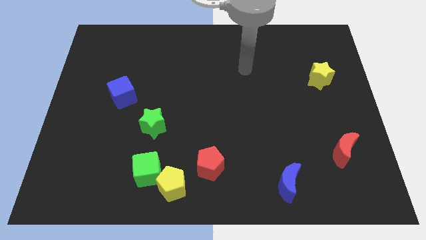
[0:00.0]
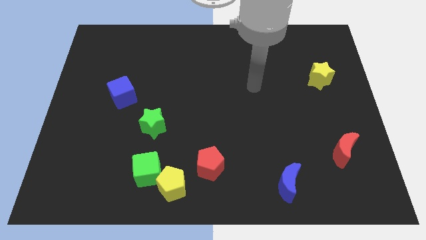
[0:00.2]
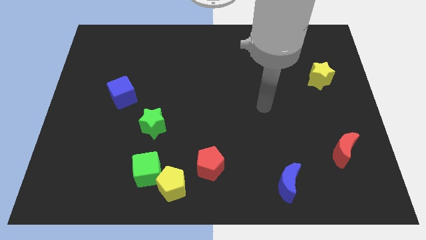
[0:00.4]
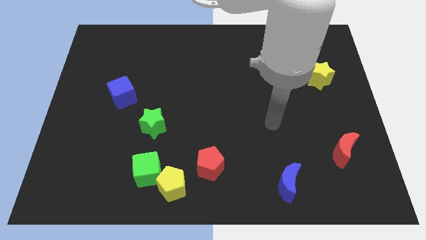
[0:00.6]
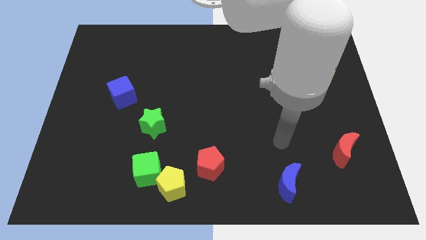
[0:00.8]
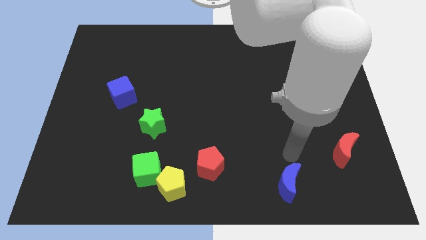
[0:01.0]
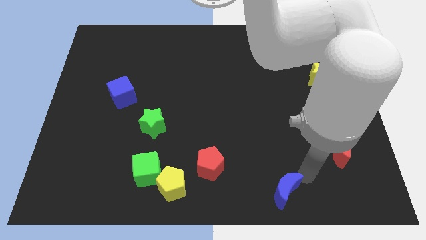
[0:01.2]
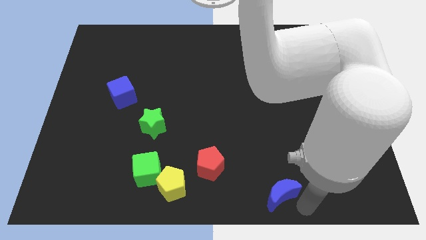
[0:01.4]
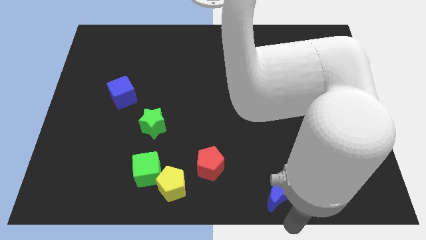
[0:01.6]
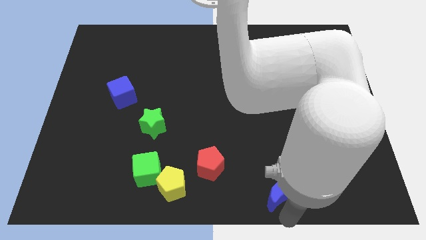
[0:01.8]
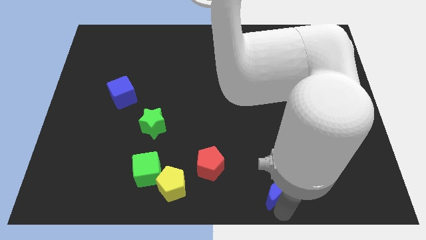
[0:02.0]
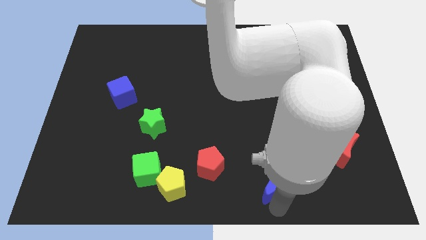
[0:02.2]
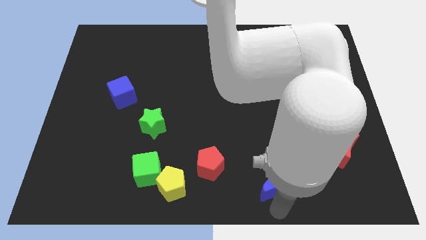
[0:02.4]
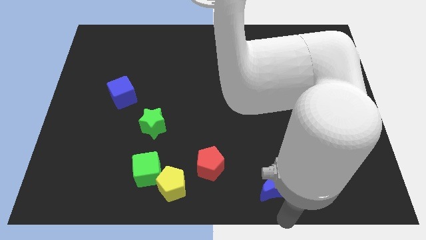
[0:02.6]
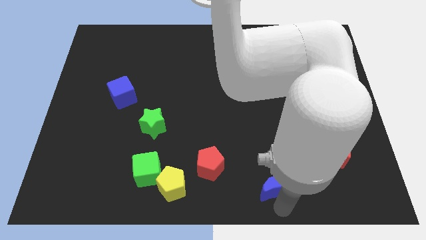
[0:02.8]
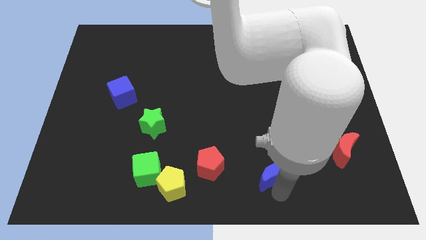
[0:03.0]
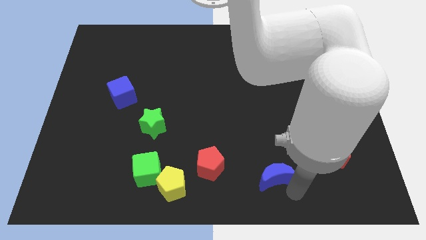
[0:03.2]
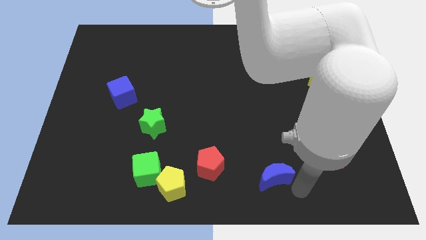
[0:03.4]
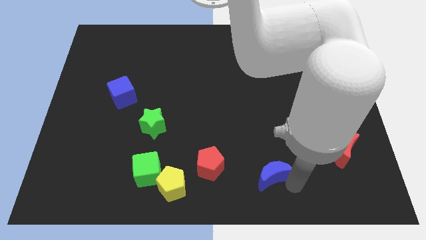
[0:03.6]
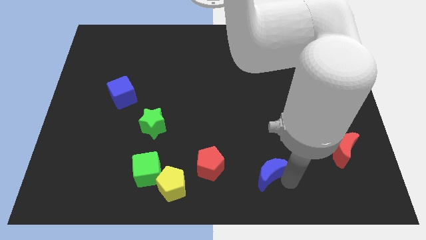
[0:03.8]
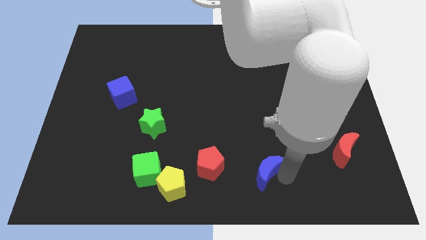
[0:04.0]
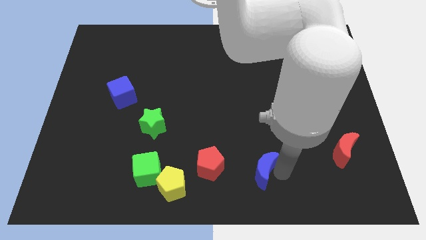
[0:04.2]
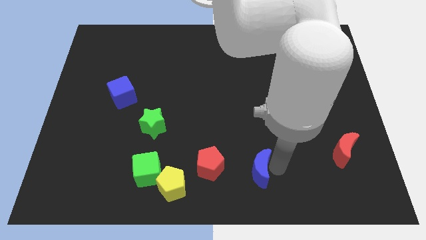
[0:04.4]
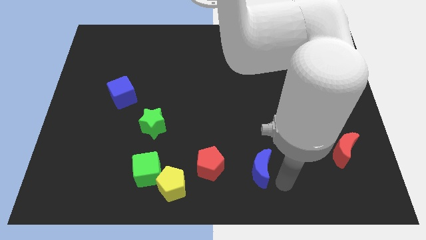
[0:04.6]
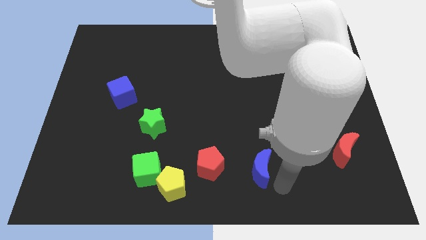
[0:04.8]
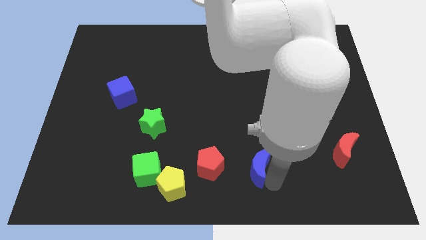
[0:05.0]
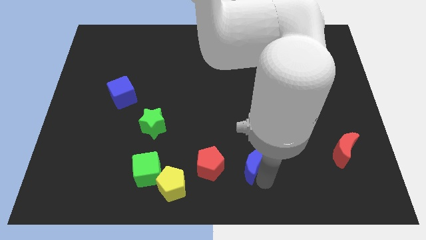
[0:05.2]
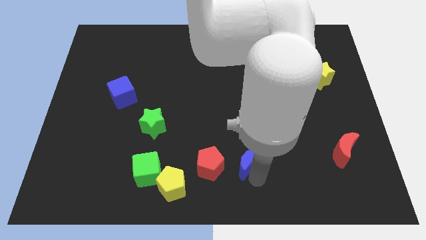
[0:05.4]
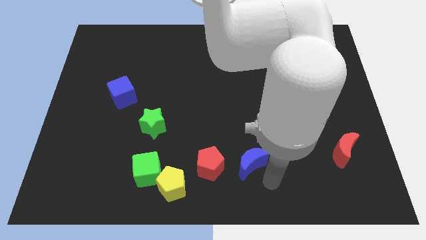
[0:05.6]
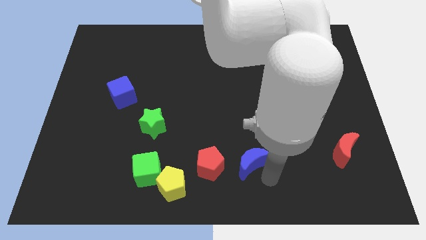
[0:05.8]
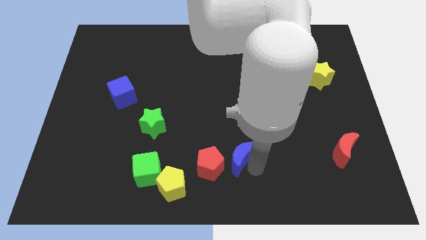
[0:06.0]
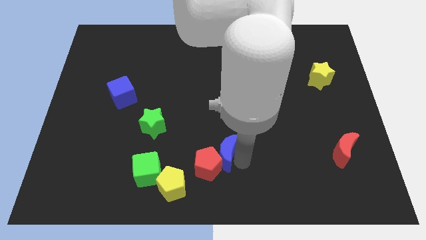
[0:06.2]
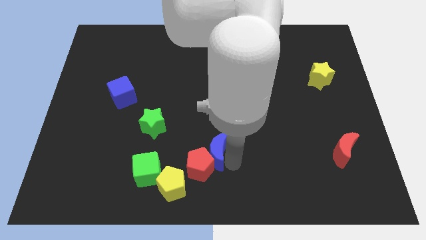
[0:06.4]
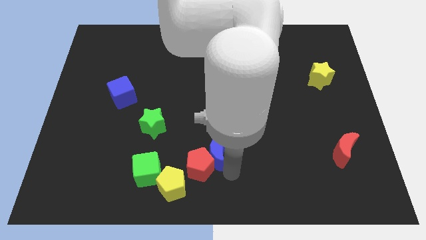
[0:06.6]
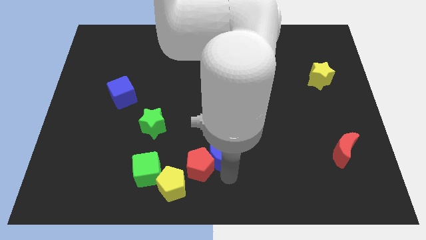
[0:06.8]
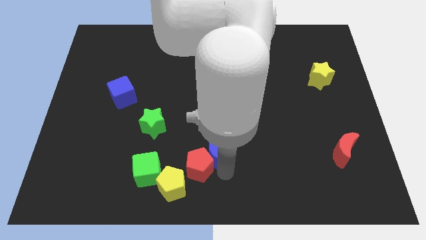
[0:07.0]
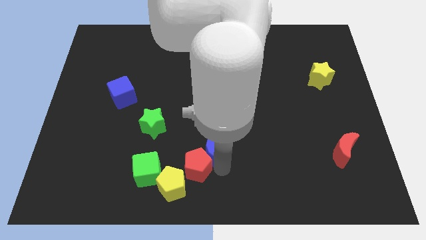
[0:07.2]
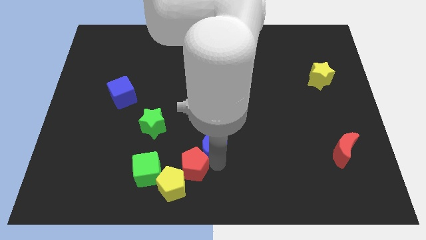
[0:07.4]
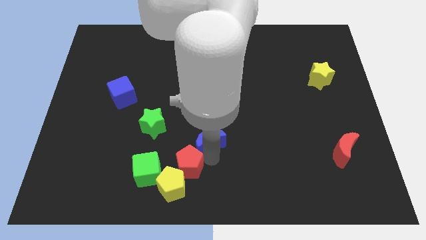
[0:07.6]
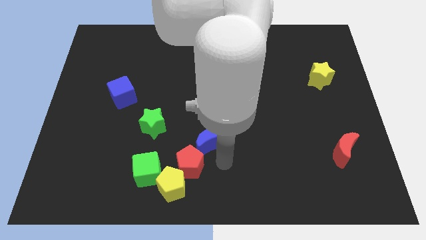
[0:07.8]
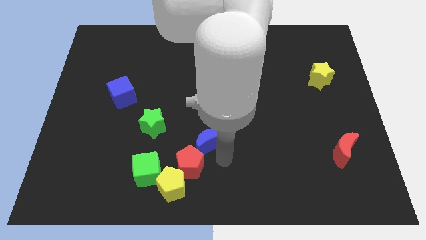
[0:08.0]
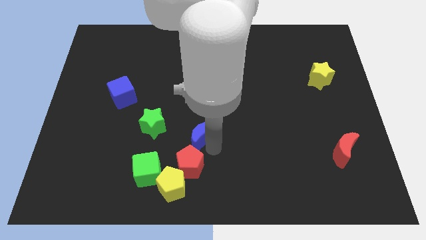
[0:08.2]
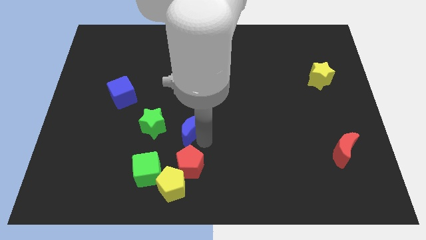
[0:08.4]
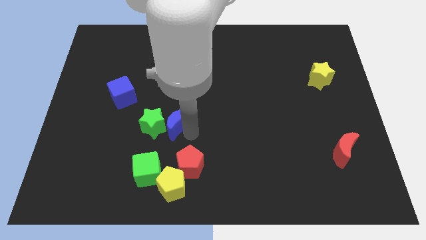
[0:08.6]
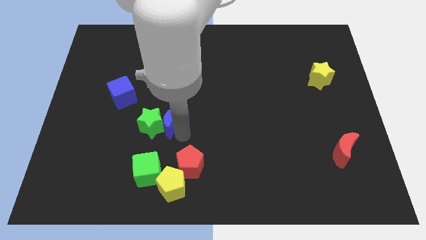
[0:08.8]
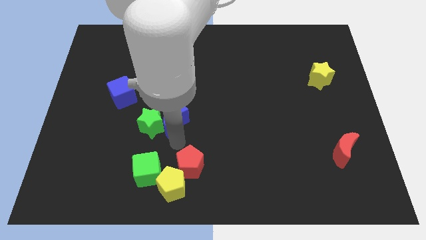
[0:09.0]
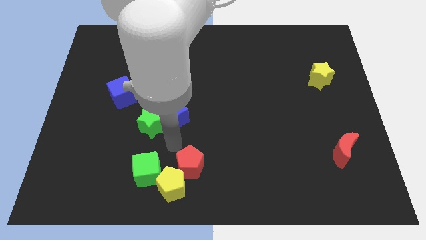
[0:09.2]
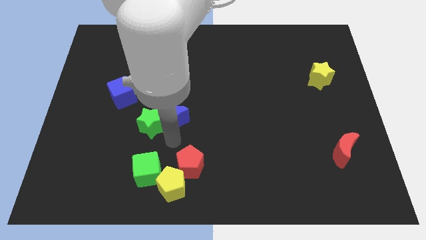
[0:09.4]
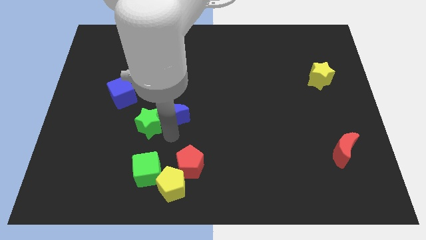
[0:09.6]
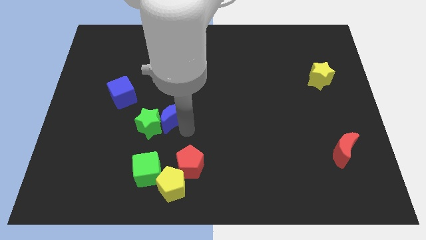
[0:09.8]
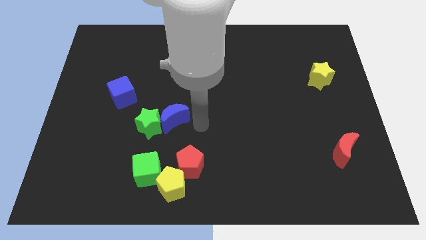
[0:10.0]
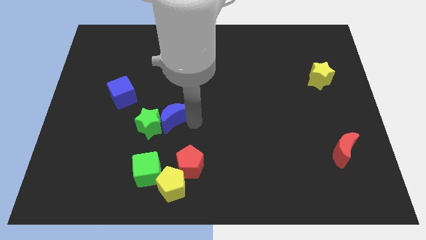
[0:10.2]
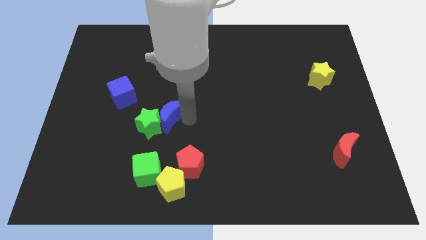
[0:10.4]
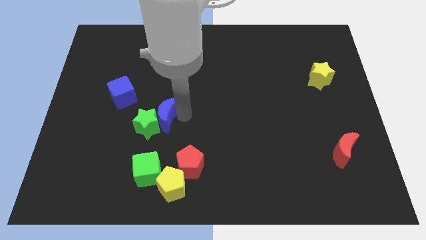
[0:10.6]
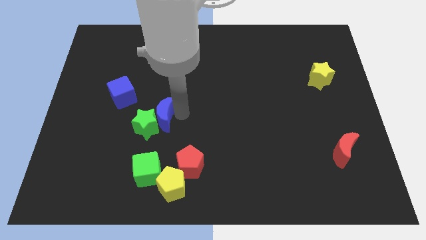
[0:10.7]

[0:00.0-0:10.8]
put the blue moon to the bottom right side of the blue cube

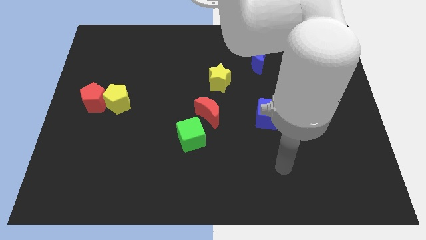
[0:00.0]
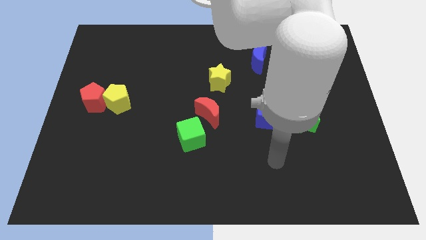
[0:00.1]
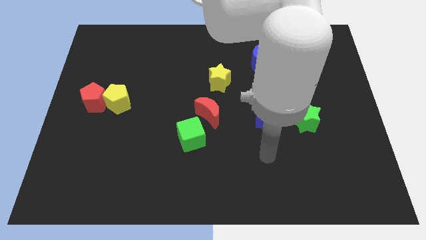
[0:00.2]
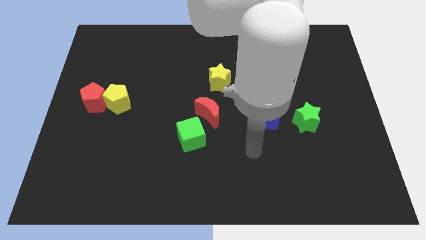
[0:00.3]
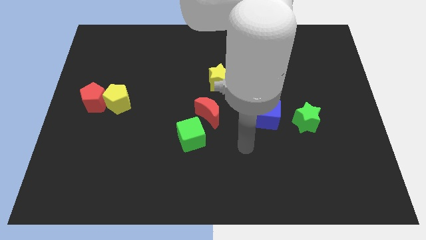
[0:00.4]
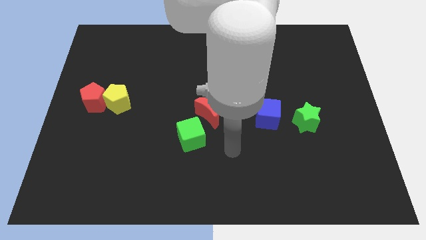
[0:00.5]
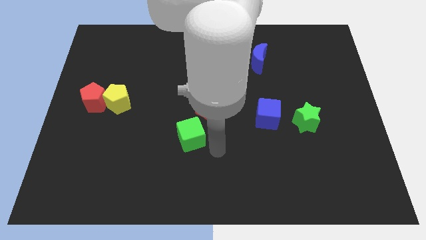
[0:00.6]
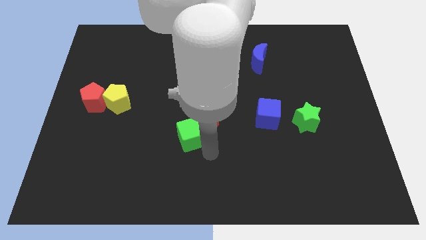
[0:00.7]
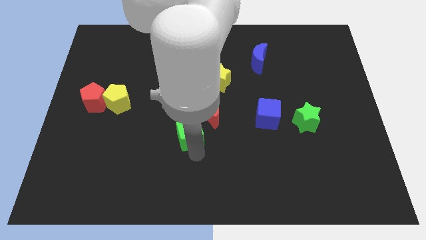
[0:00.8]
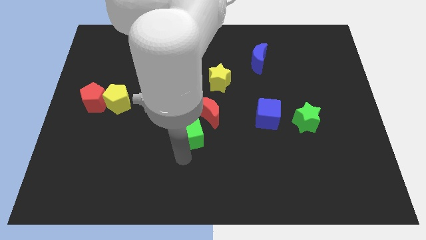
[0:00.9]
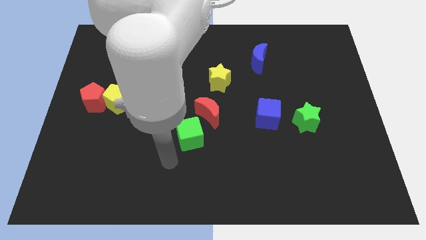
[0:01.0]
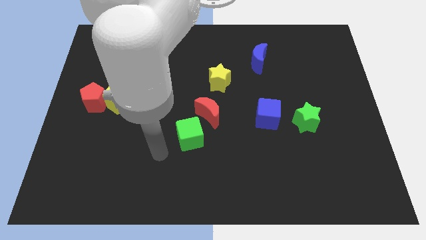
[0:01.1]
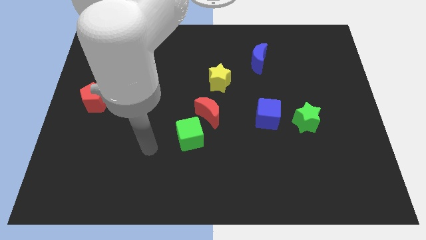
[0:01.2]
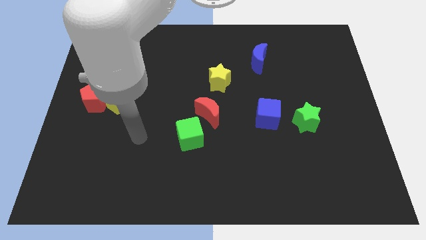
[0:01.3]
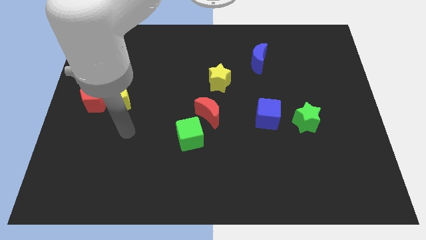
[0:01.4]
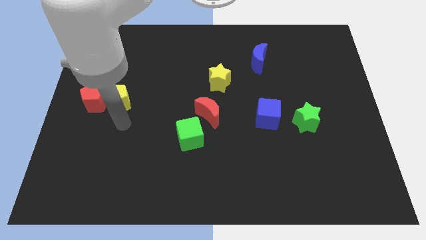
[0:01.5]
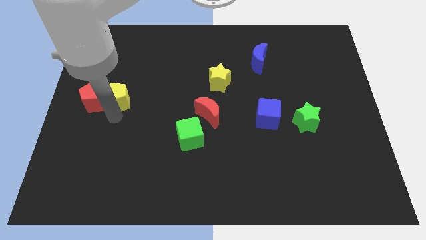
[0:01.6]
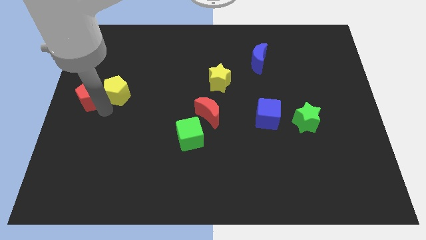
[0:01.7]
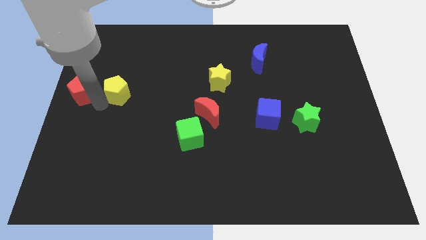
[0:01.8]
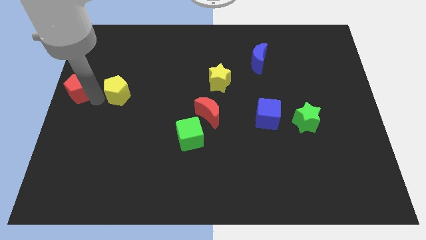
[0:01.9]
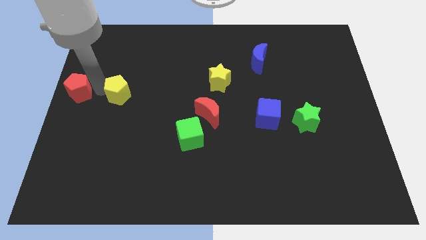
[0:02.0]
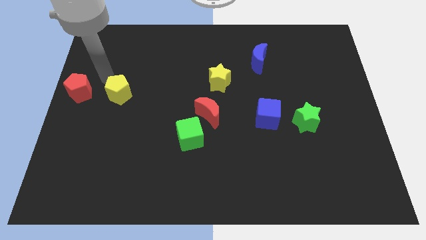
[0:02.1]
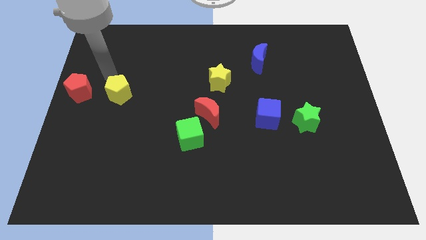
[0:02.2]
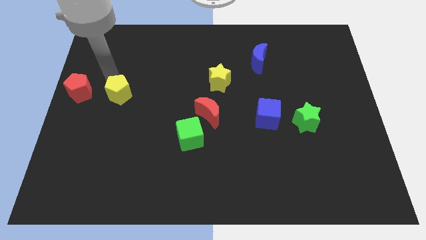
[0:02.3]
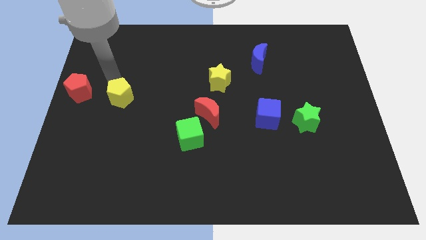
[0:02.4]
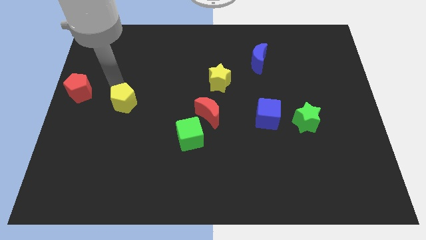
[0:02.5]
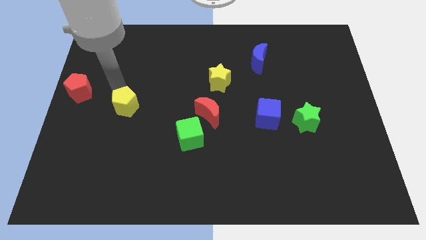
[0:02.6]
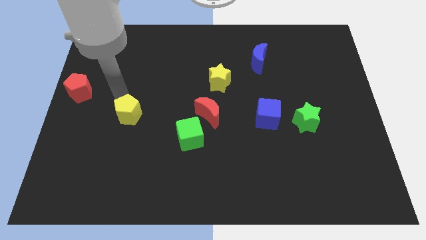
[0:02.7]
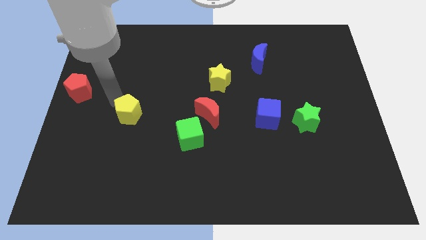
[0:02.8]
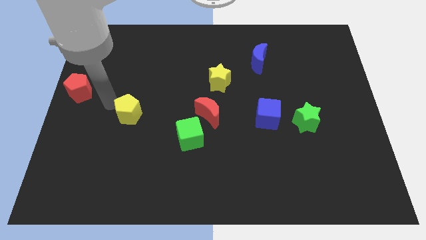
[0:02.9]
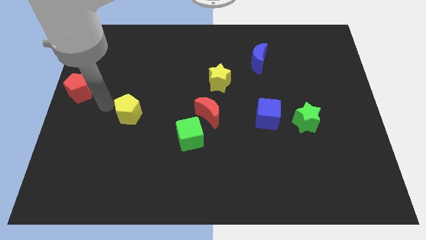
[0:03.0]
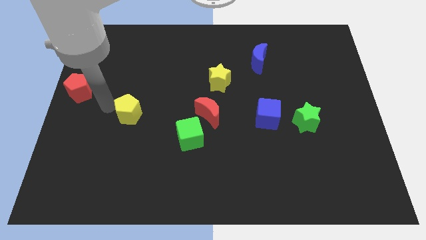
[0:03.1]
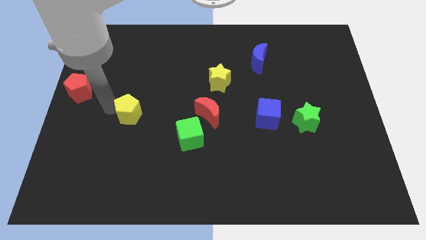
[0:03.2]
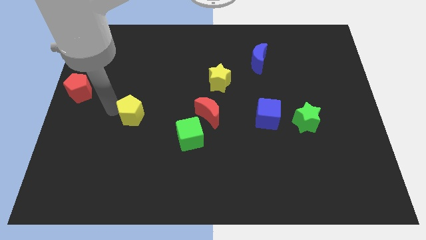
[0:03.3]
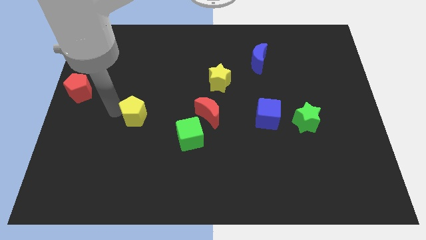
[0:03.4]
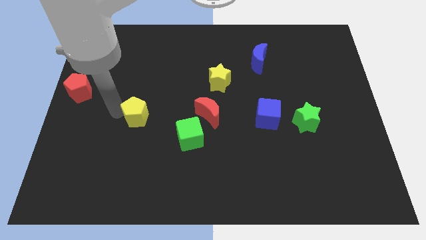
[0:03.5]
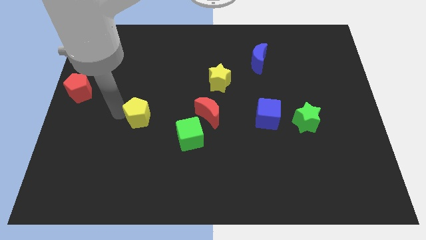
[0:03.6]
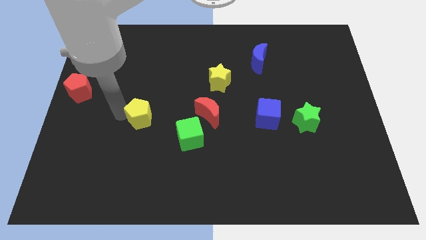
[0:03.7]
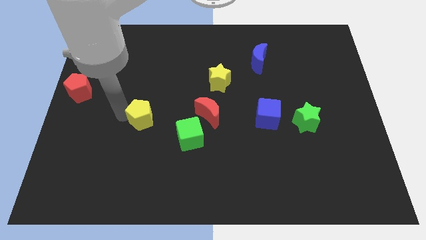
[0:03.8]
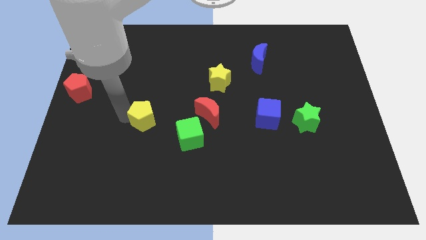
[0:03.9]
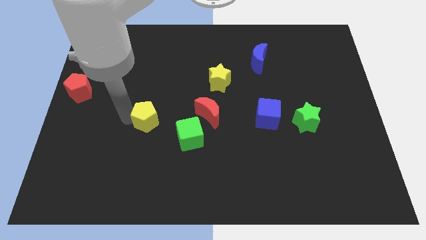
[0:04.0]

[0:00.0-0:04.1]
slide the yellow pentagon to the top left side of the green cube
